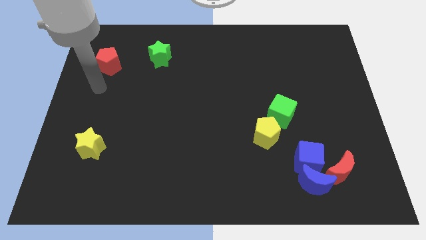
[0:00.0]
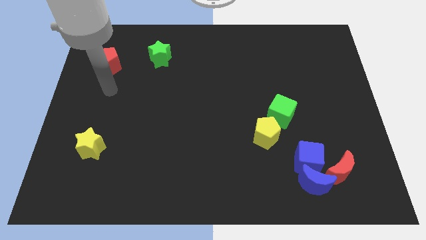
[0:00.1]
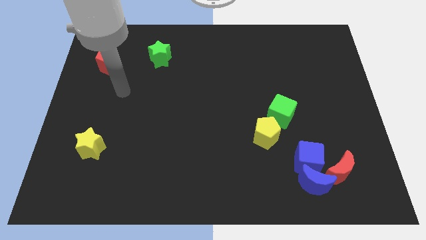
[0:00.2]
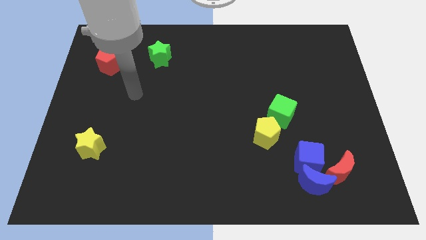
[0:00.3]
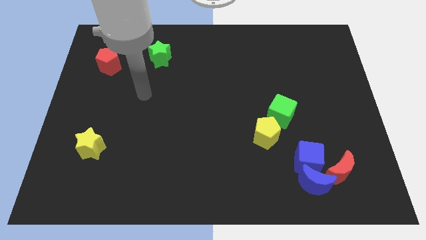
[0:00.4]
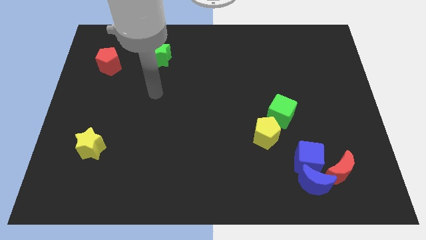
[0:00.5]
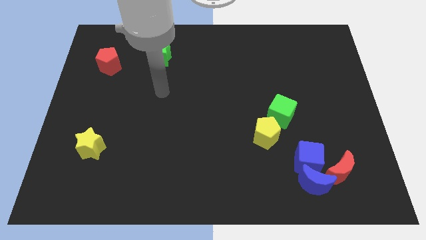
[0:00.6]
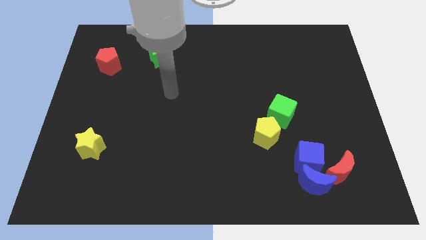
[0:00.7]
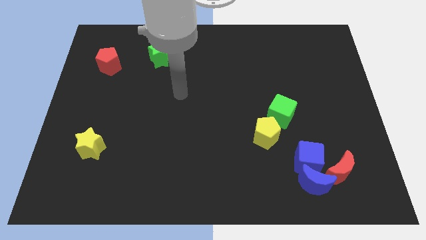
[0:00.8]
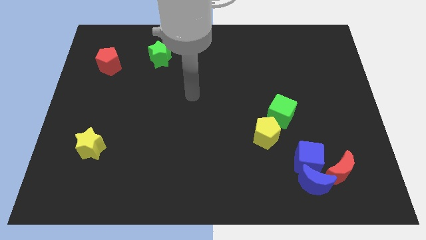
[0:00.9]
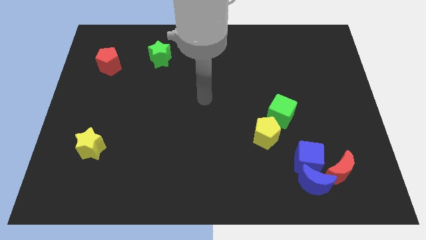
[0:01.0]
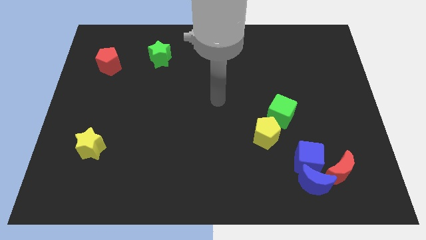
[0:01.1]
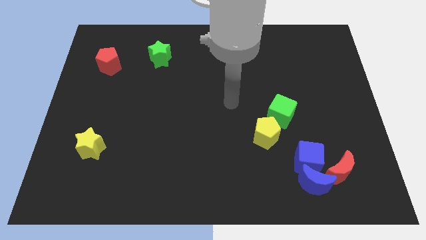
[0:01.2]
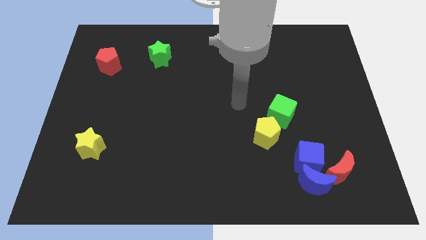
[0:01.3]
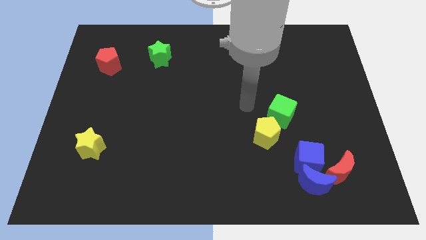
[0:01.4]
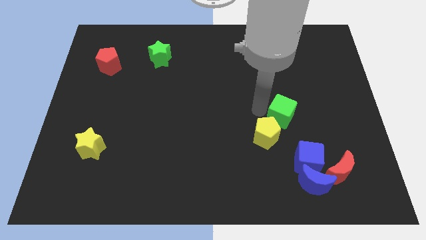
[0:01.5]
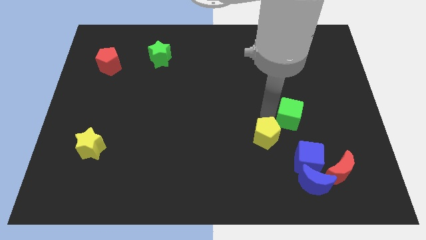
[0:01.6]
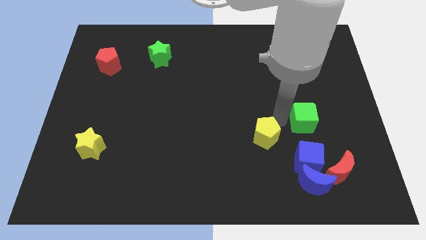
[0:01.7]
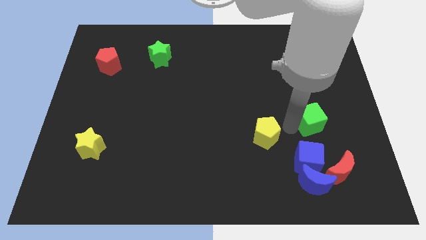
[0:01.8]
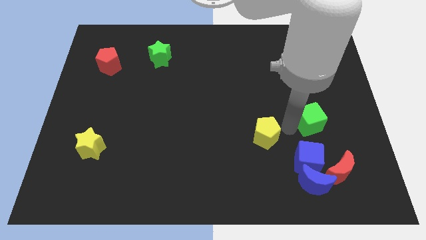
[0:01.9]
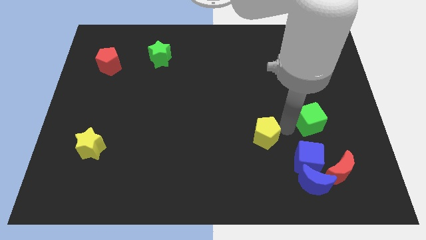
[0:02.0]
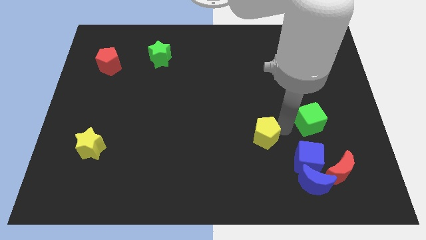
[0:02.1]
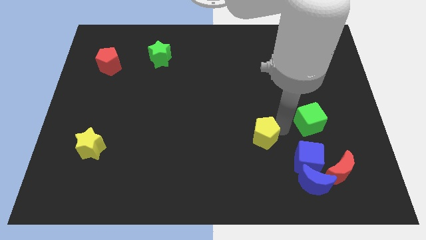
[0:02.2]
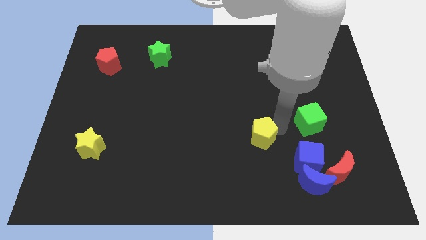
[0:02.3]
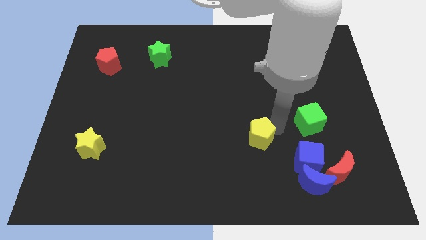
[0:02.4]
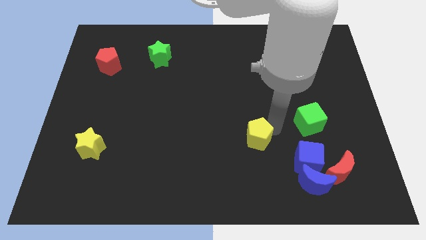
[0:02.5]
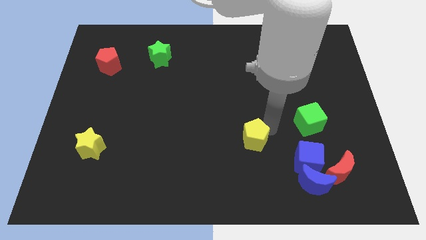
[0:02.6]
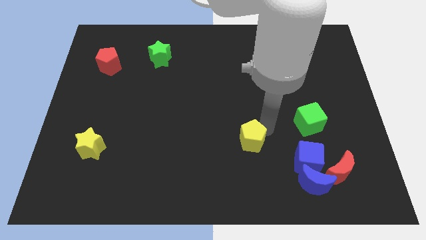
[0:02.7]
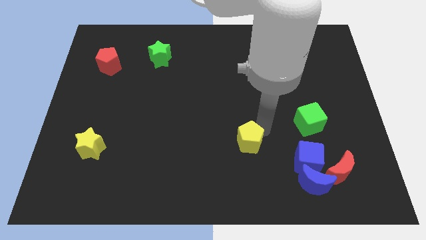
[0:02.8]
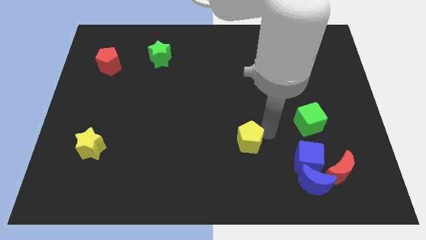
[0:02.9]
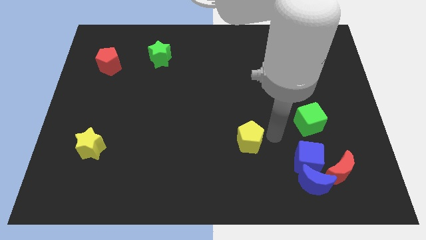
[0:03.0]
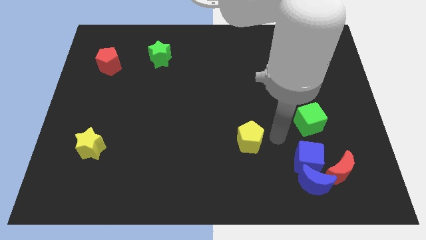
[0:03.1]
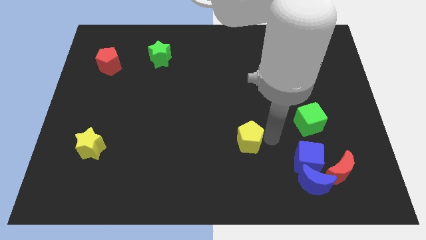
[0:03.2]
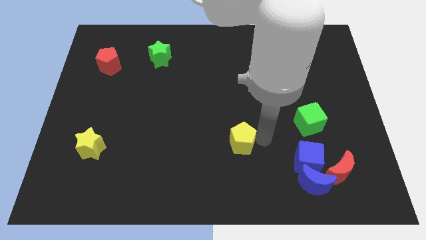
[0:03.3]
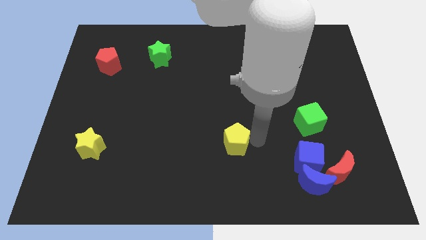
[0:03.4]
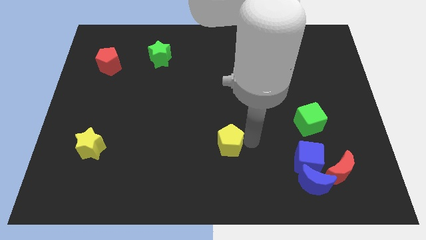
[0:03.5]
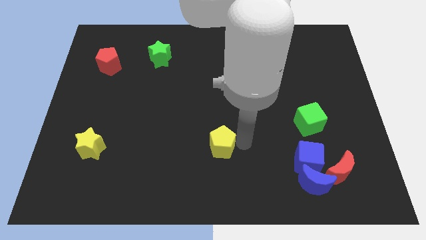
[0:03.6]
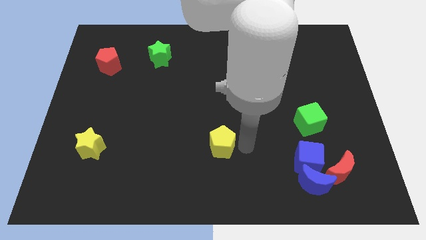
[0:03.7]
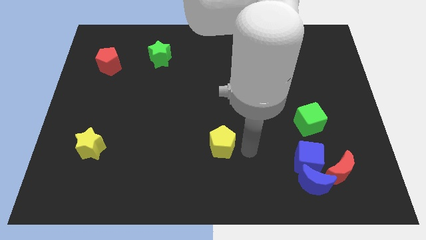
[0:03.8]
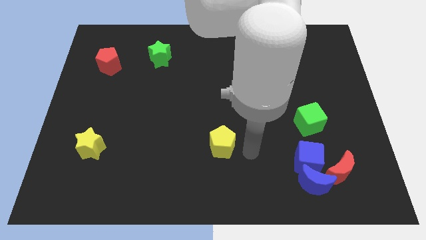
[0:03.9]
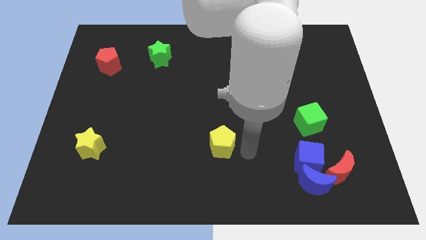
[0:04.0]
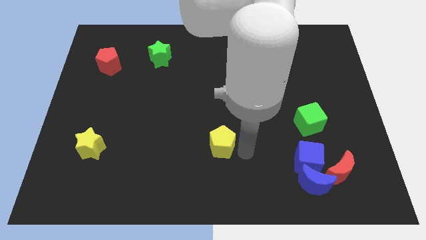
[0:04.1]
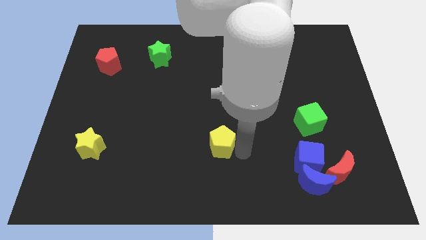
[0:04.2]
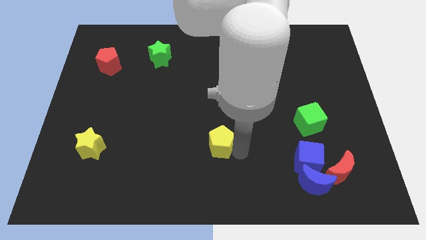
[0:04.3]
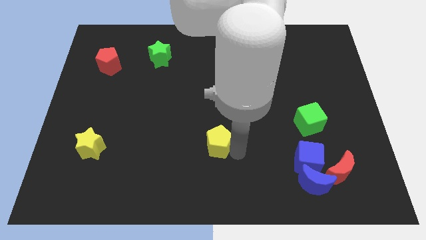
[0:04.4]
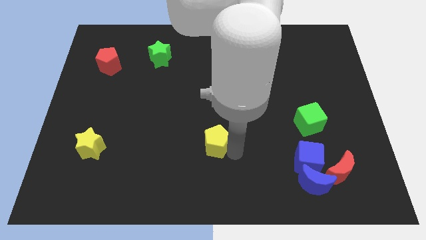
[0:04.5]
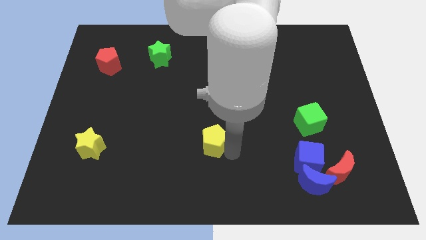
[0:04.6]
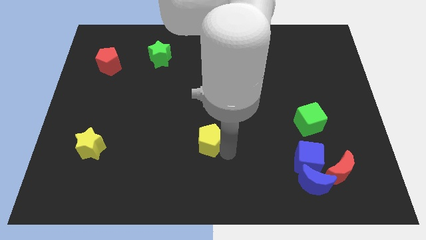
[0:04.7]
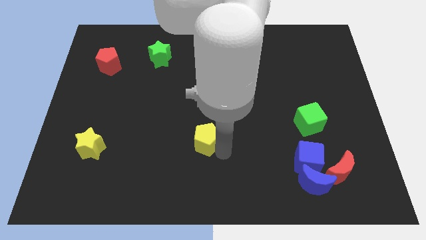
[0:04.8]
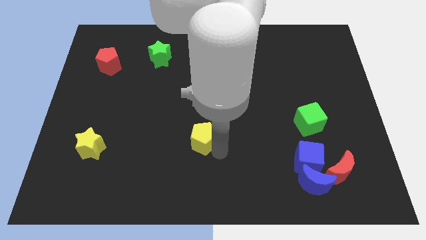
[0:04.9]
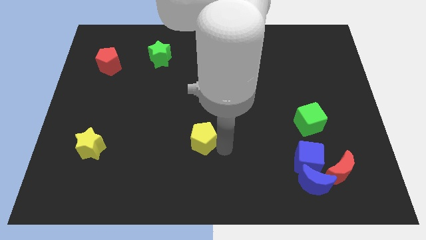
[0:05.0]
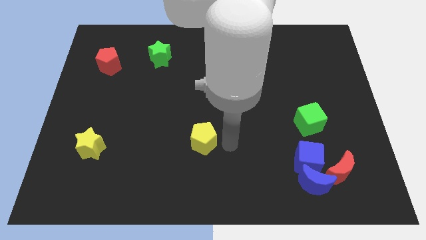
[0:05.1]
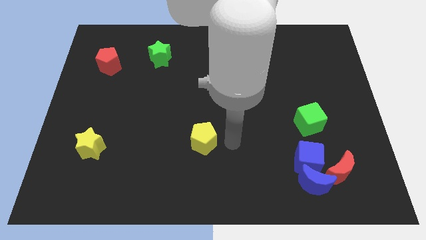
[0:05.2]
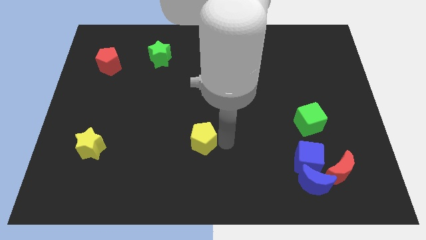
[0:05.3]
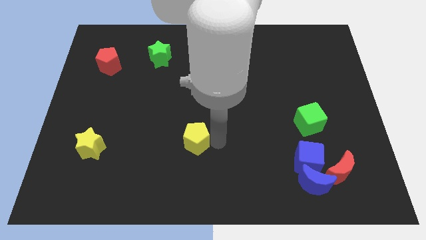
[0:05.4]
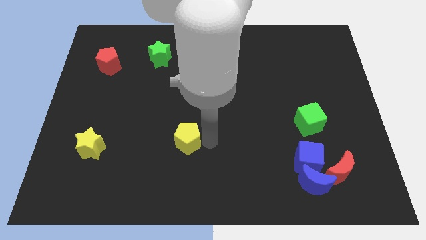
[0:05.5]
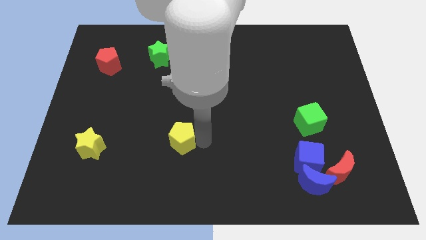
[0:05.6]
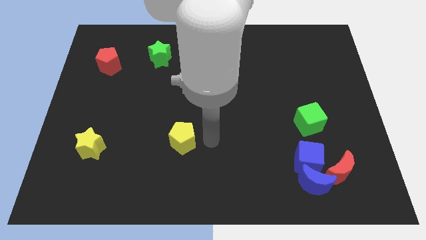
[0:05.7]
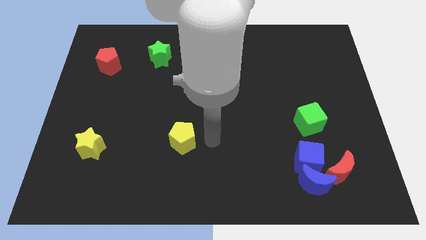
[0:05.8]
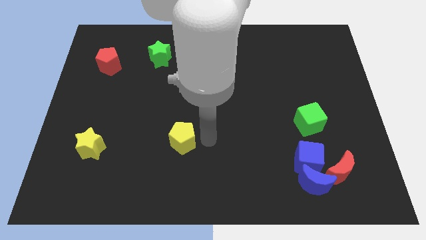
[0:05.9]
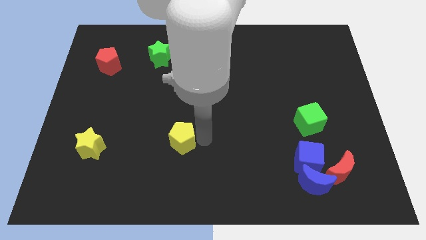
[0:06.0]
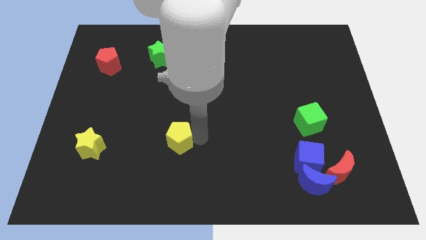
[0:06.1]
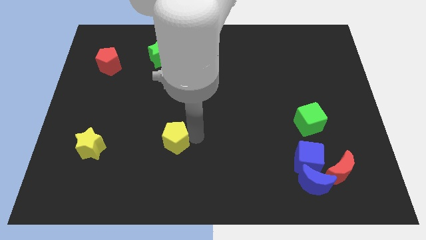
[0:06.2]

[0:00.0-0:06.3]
move the yellow pentagon to the left

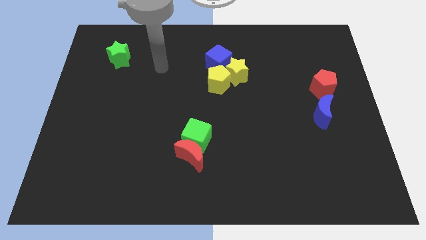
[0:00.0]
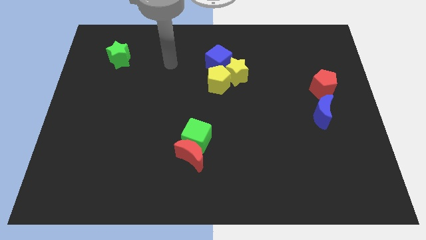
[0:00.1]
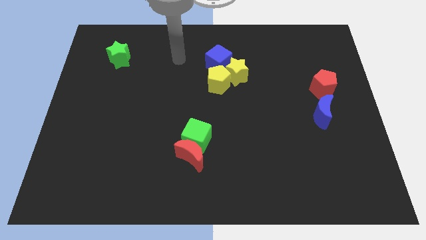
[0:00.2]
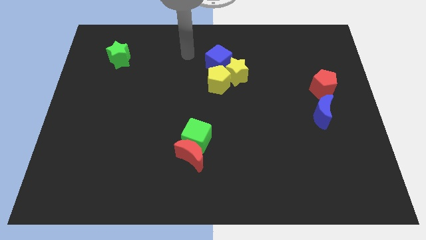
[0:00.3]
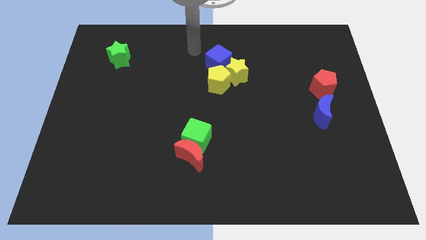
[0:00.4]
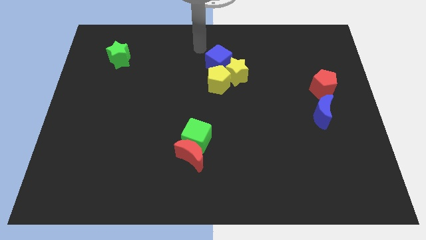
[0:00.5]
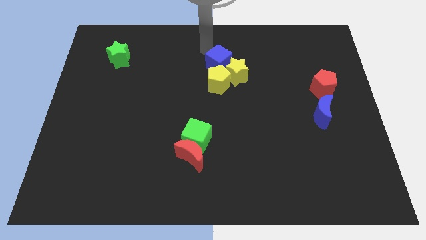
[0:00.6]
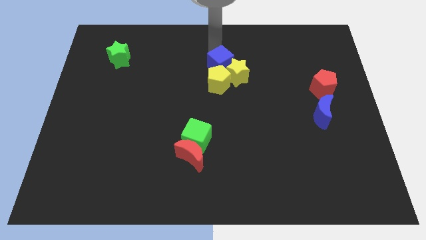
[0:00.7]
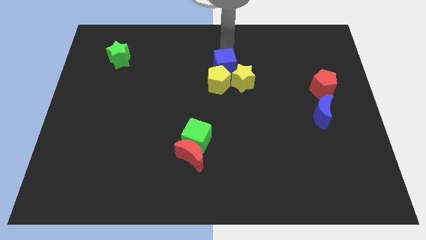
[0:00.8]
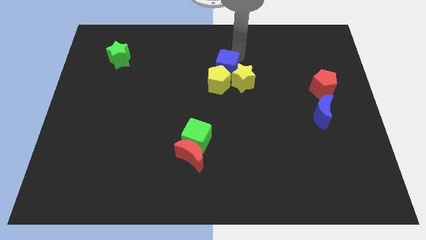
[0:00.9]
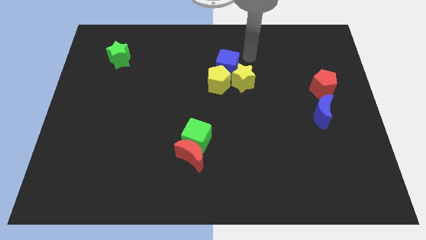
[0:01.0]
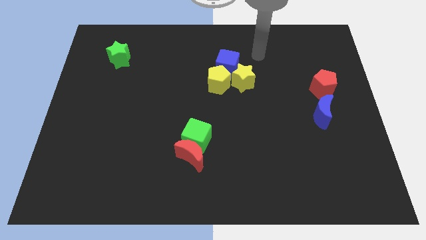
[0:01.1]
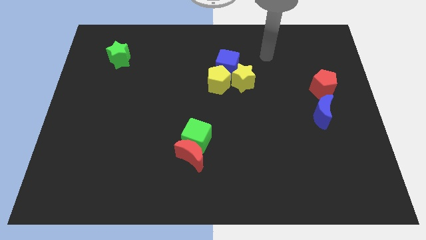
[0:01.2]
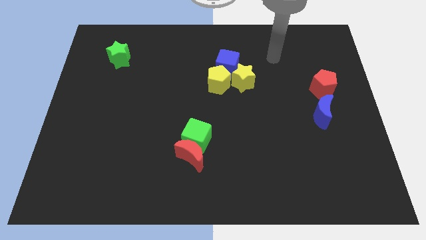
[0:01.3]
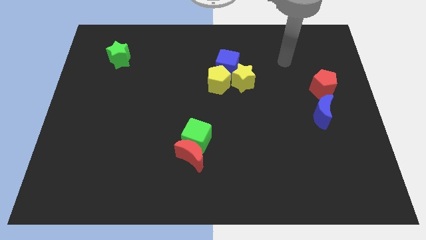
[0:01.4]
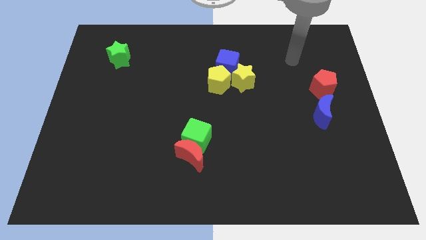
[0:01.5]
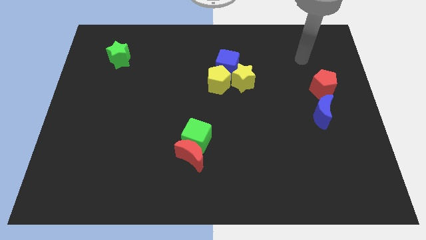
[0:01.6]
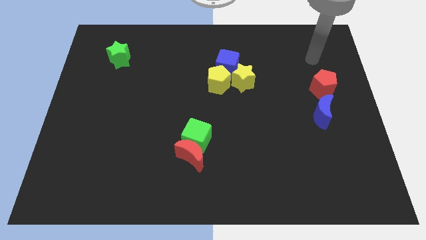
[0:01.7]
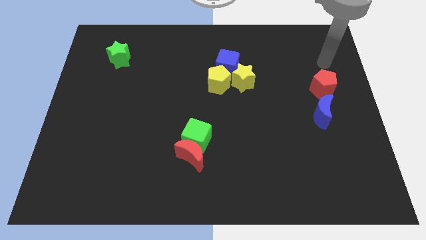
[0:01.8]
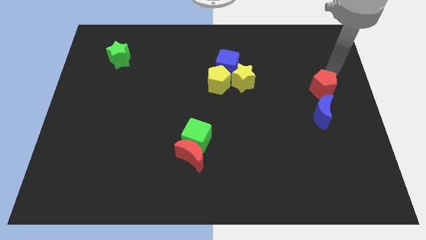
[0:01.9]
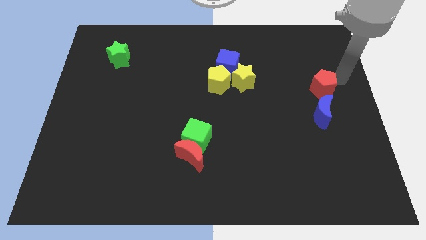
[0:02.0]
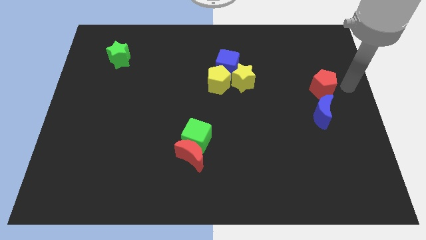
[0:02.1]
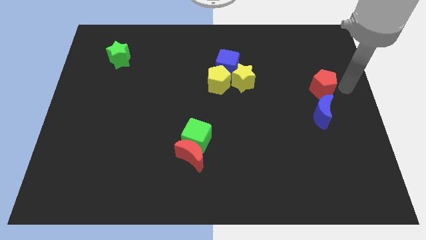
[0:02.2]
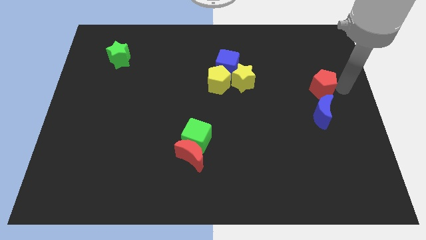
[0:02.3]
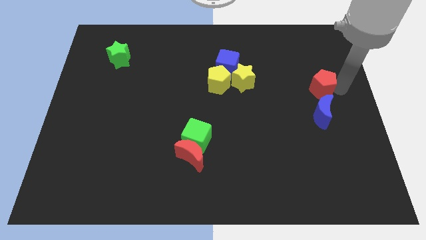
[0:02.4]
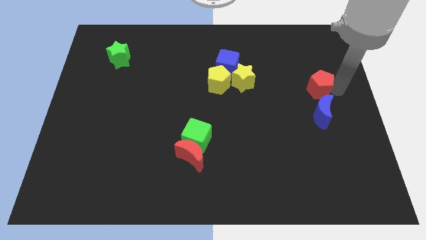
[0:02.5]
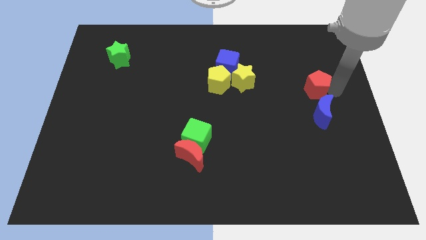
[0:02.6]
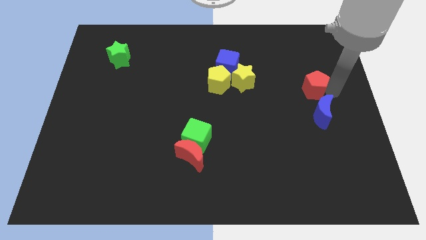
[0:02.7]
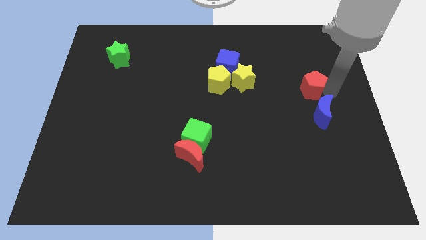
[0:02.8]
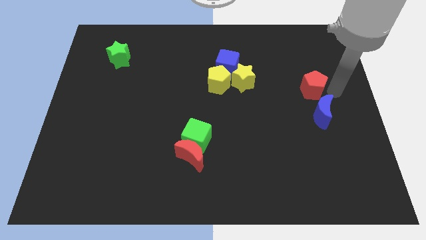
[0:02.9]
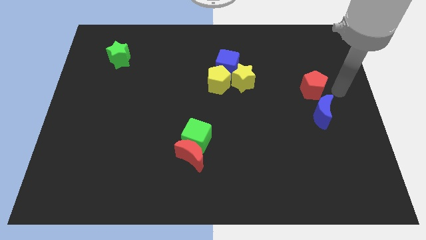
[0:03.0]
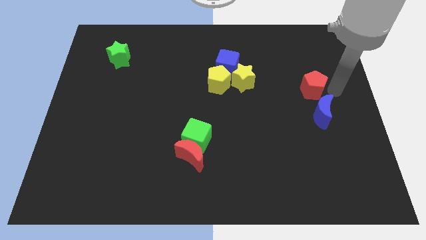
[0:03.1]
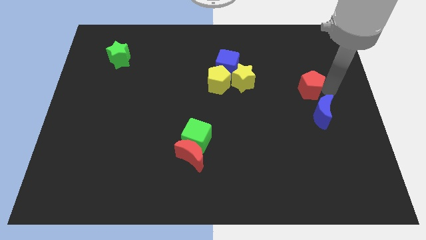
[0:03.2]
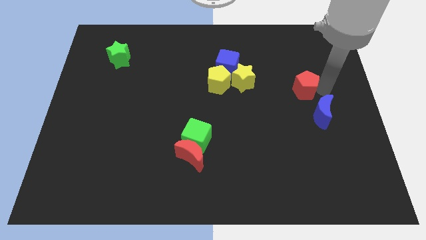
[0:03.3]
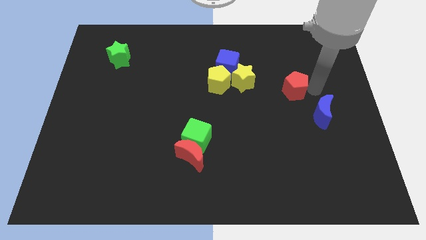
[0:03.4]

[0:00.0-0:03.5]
slightly move the red pentagon left
